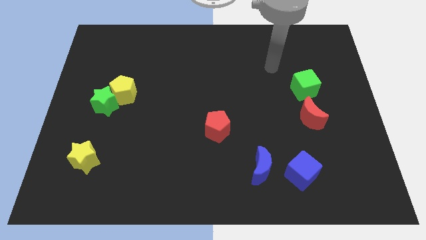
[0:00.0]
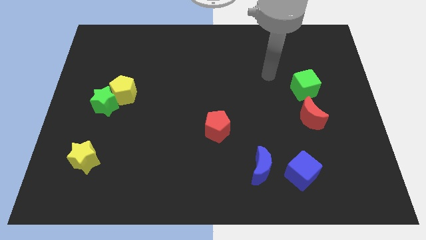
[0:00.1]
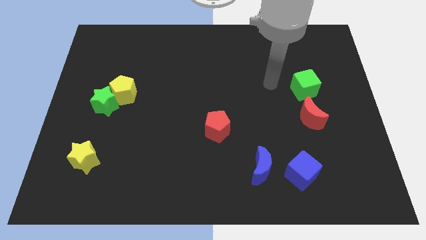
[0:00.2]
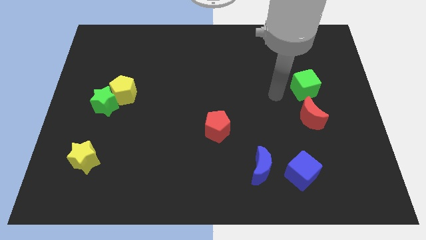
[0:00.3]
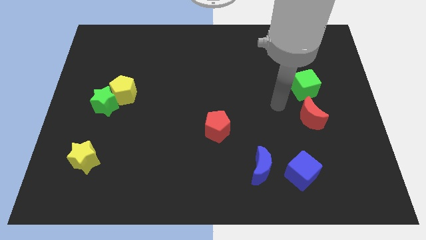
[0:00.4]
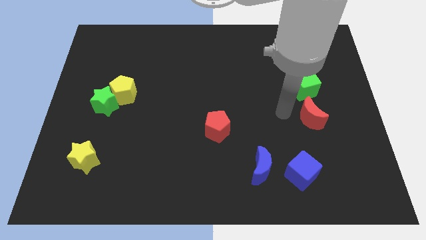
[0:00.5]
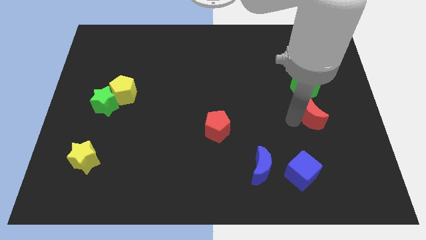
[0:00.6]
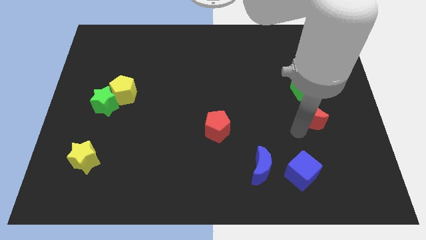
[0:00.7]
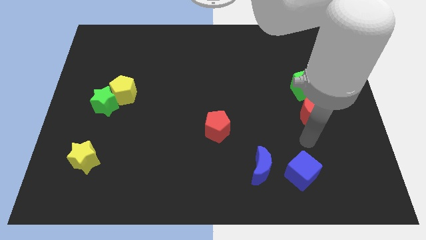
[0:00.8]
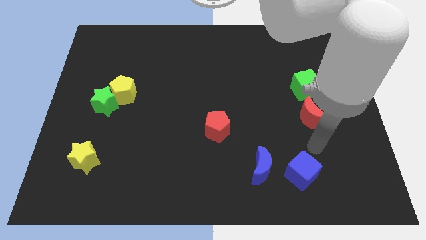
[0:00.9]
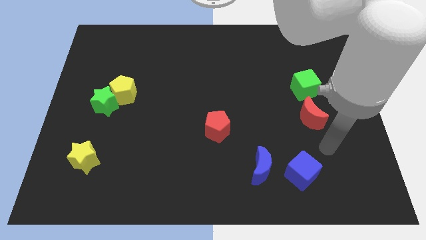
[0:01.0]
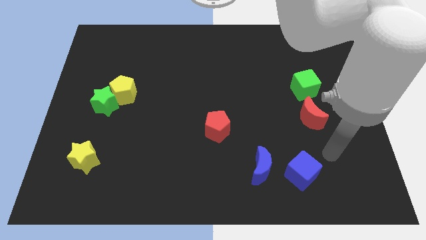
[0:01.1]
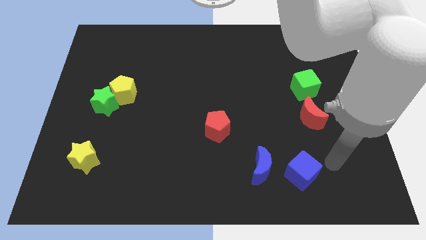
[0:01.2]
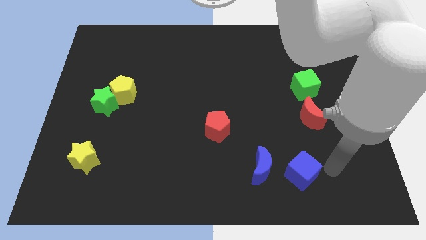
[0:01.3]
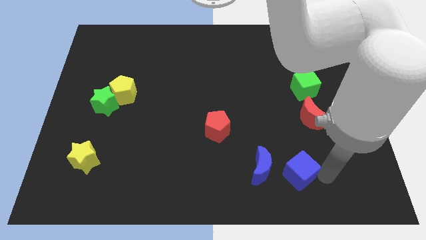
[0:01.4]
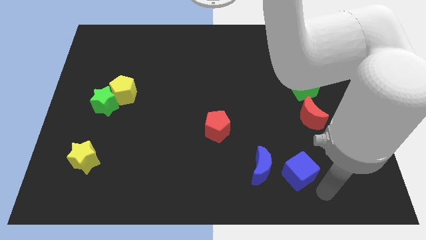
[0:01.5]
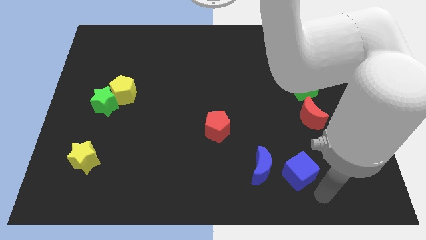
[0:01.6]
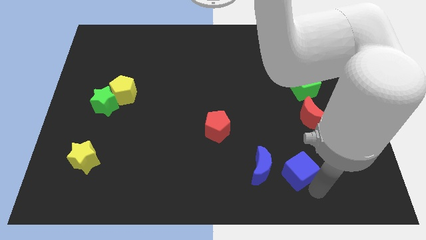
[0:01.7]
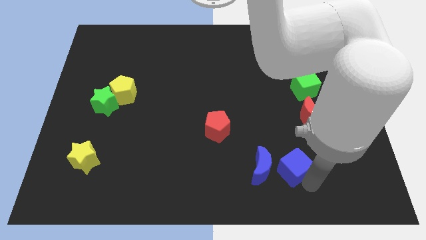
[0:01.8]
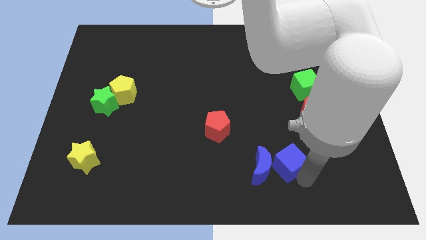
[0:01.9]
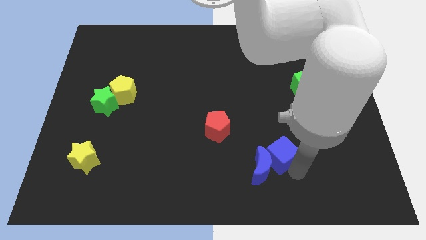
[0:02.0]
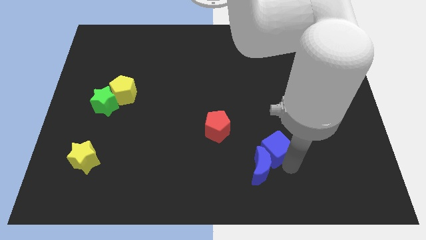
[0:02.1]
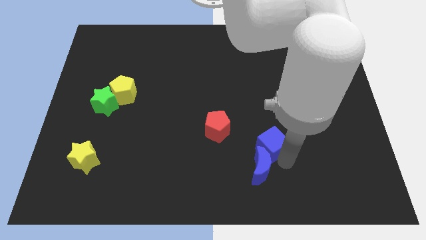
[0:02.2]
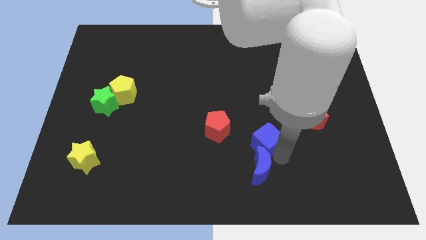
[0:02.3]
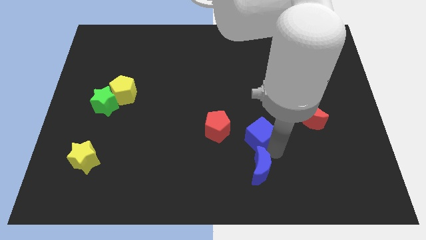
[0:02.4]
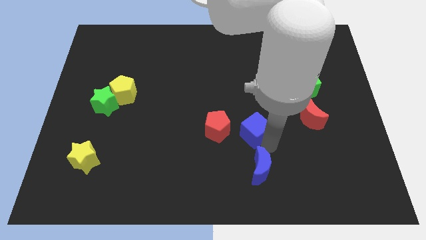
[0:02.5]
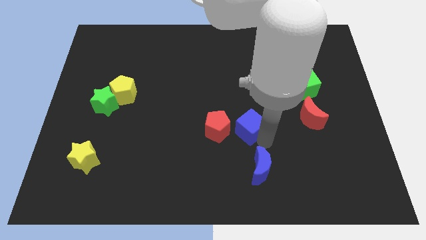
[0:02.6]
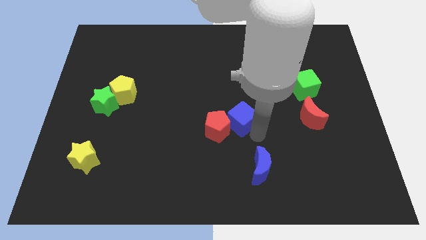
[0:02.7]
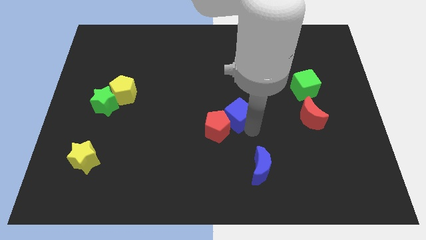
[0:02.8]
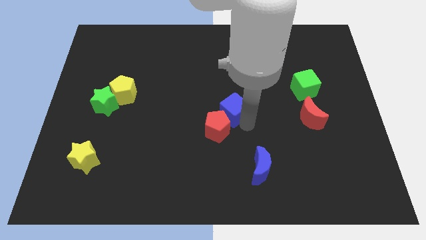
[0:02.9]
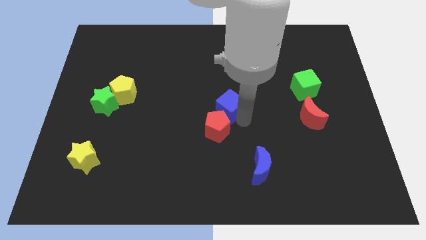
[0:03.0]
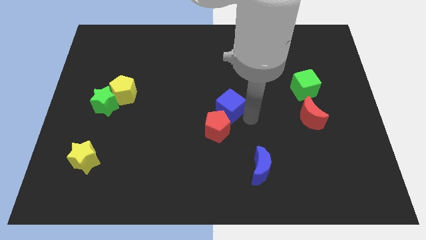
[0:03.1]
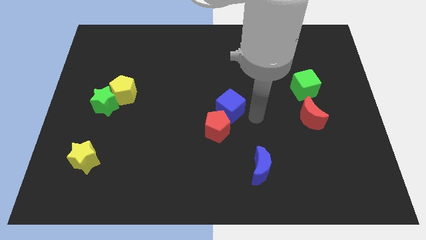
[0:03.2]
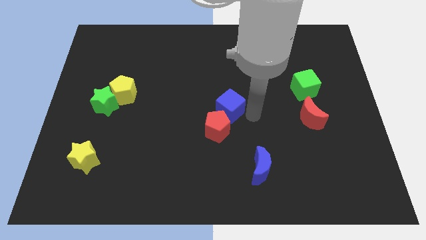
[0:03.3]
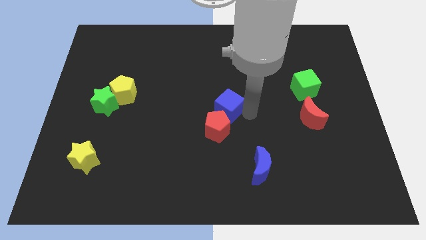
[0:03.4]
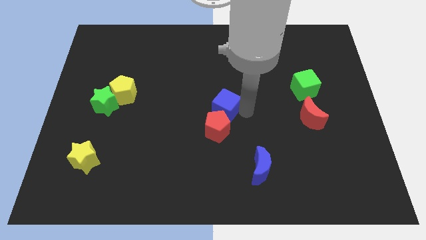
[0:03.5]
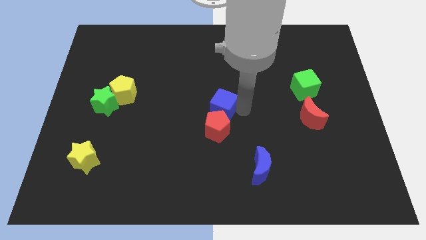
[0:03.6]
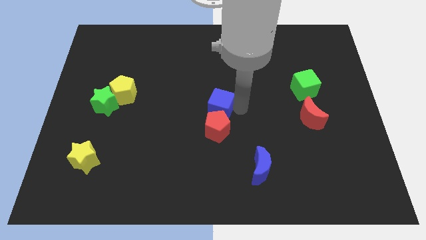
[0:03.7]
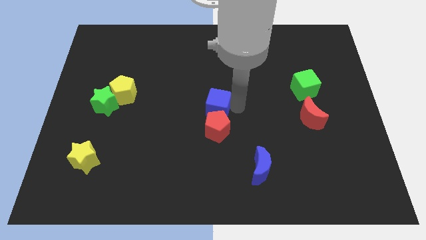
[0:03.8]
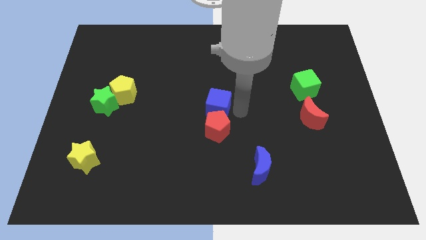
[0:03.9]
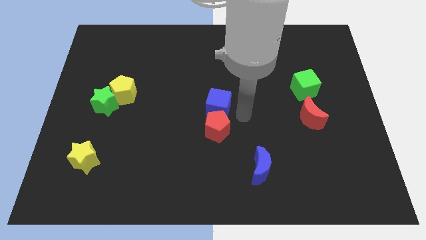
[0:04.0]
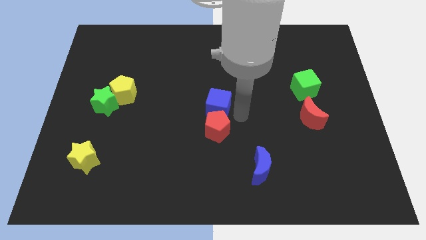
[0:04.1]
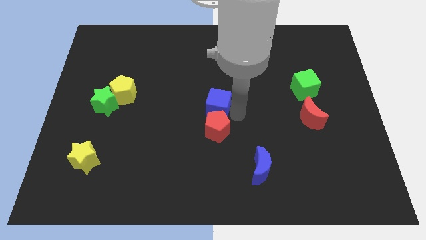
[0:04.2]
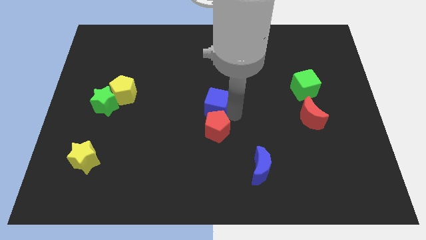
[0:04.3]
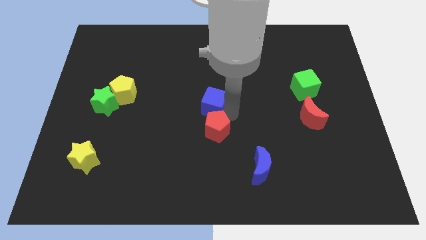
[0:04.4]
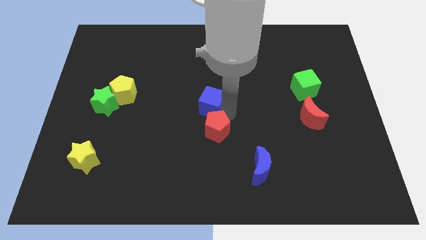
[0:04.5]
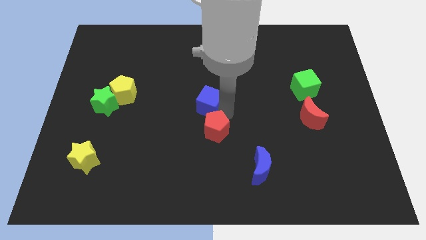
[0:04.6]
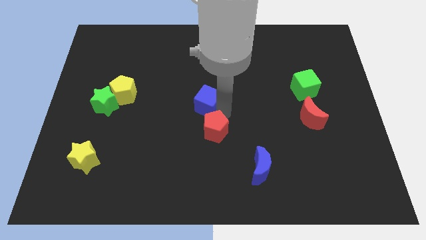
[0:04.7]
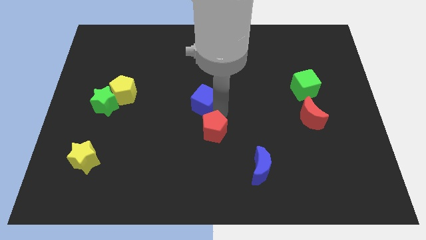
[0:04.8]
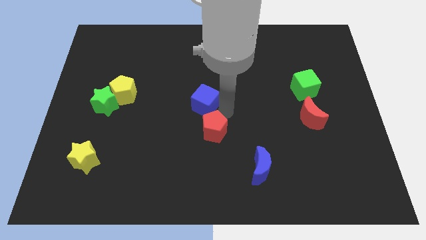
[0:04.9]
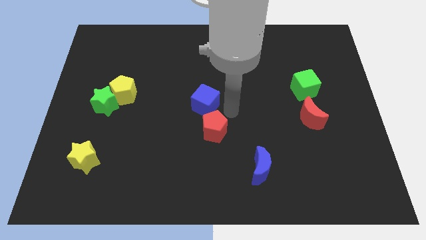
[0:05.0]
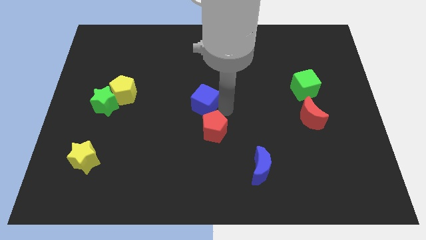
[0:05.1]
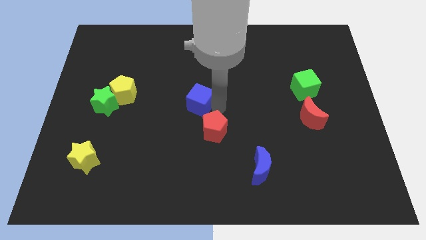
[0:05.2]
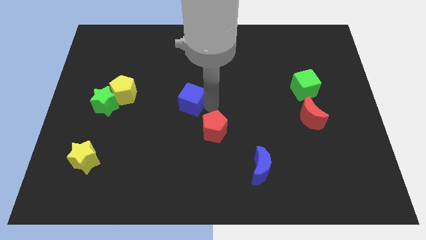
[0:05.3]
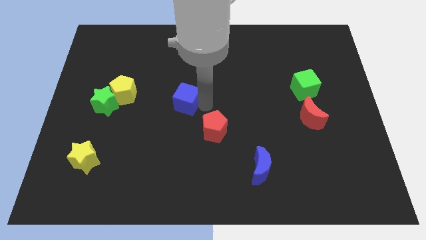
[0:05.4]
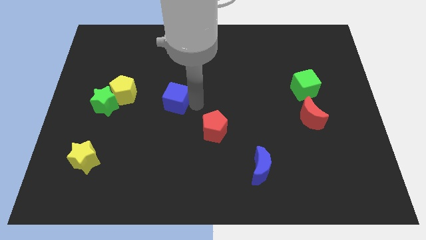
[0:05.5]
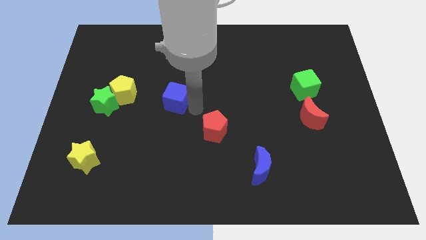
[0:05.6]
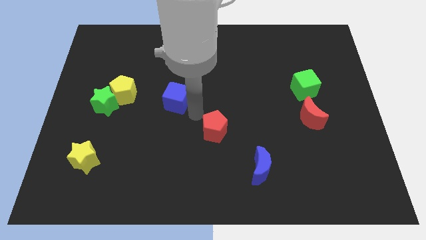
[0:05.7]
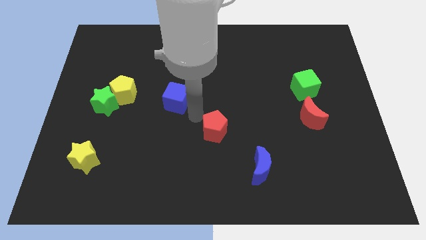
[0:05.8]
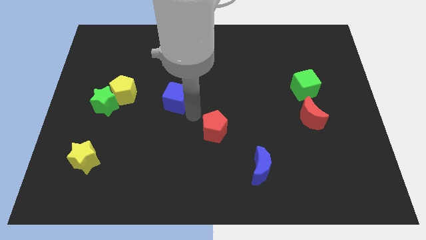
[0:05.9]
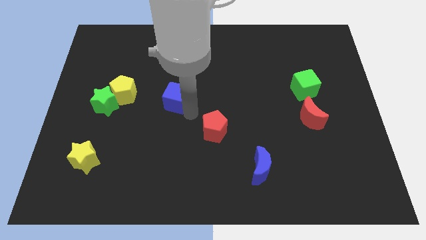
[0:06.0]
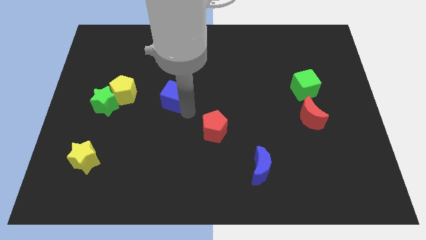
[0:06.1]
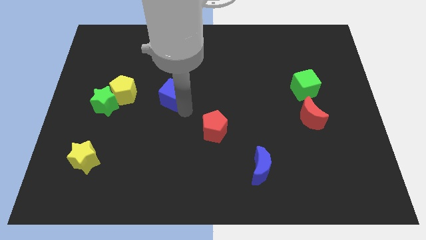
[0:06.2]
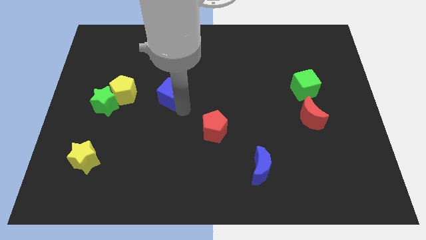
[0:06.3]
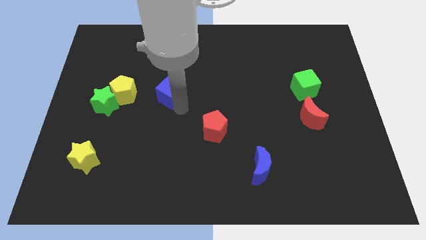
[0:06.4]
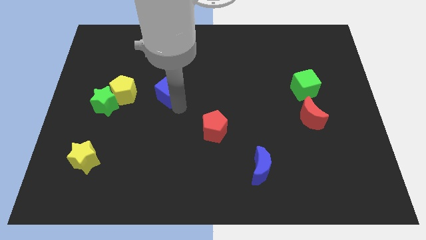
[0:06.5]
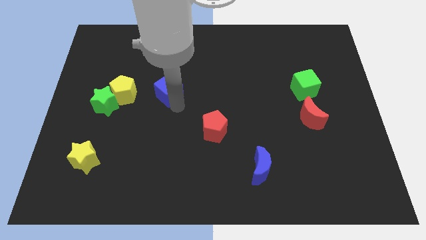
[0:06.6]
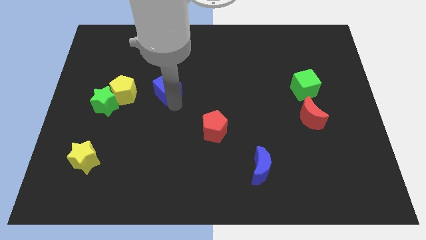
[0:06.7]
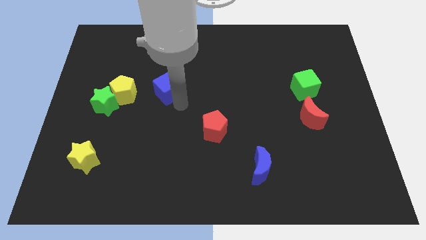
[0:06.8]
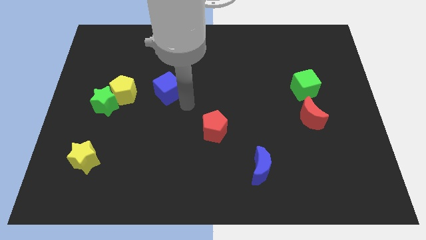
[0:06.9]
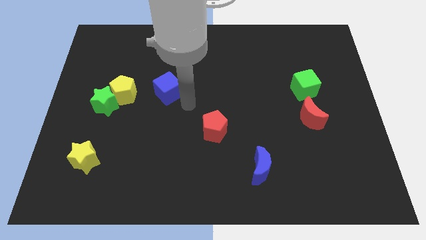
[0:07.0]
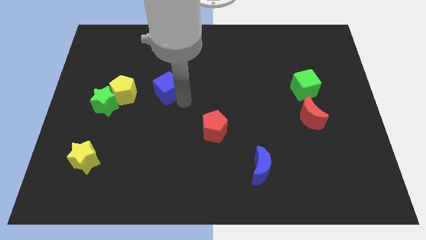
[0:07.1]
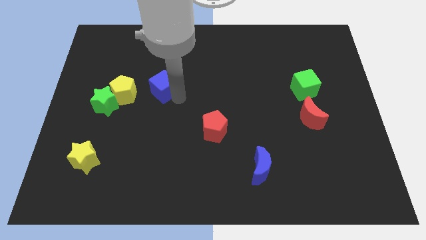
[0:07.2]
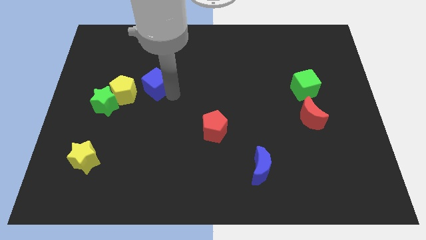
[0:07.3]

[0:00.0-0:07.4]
push the blue cube to the top right side of the yellow pentagon

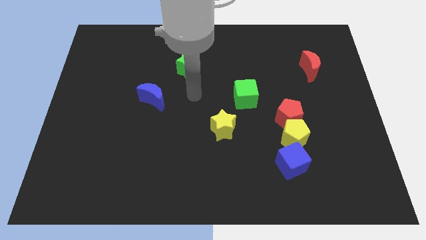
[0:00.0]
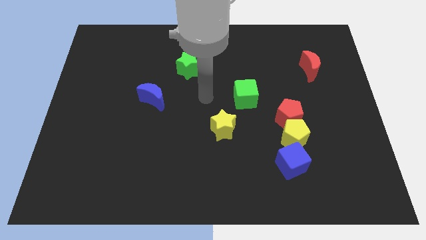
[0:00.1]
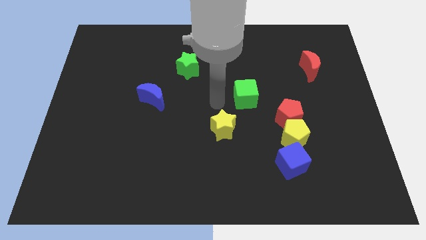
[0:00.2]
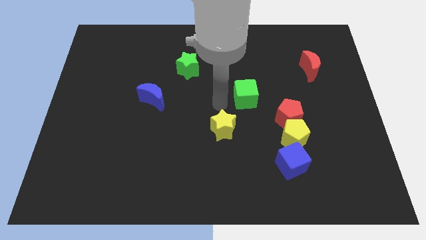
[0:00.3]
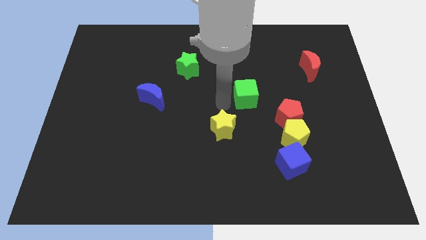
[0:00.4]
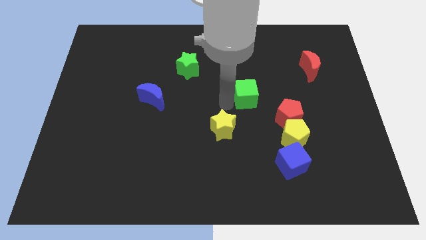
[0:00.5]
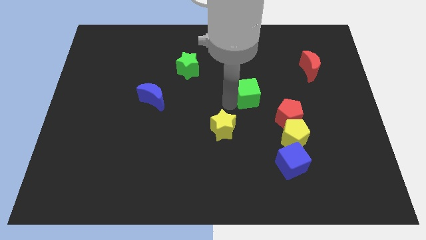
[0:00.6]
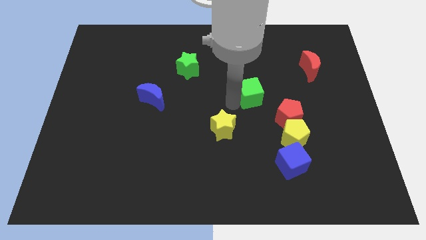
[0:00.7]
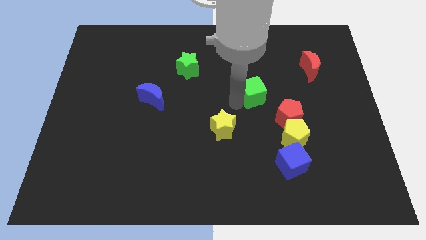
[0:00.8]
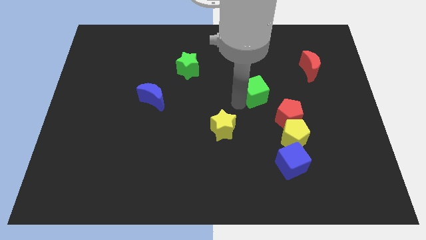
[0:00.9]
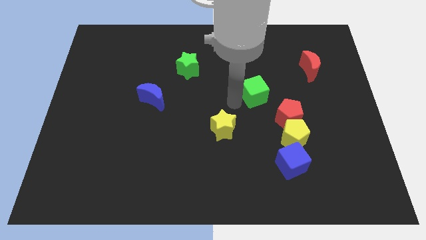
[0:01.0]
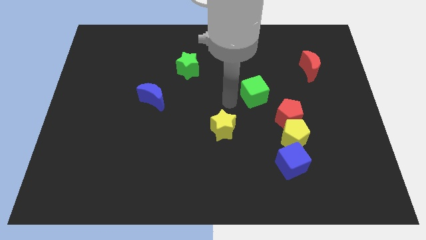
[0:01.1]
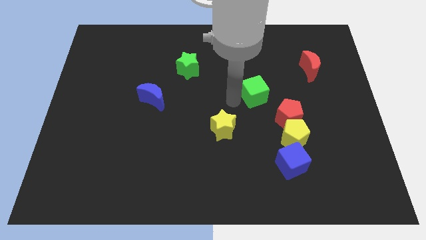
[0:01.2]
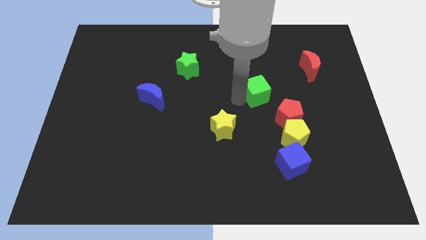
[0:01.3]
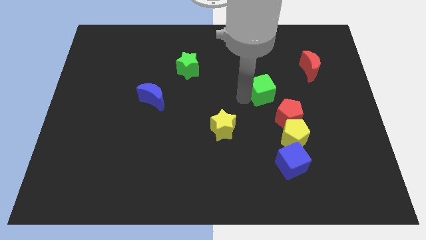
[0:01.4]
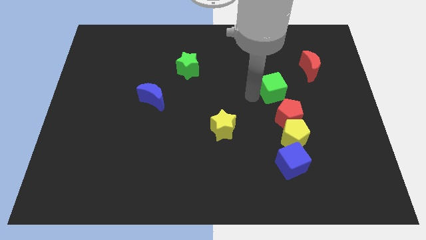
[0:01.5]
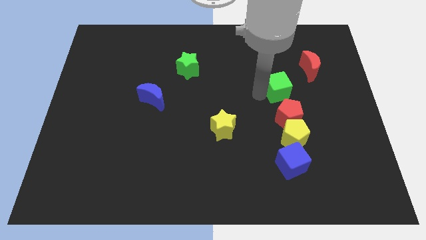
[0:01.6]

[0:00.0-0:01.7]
put the green cube to the bottom left of the red moon
